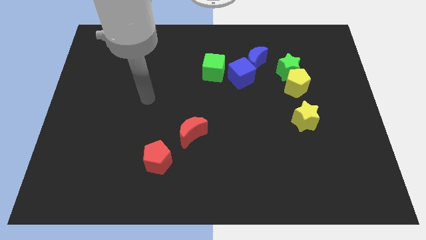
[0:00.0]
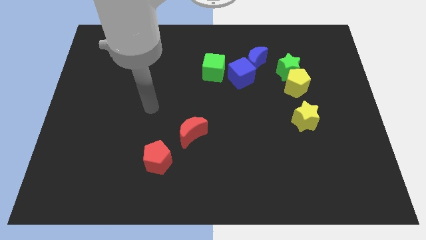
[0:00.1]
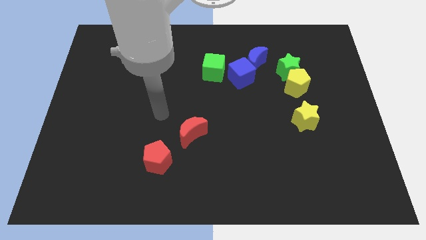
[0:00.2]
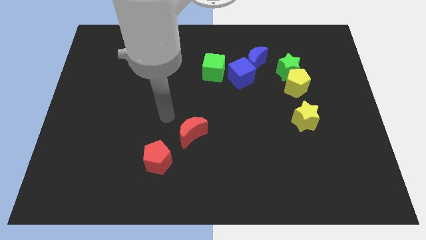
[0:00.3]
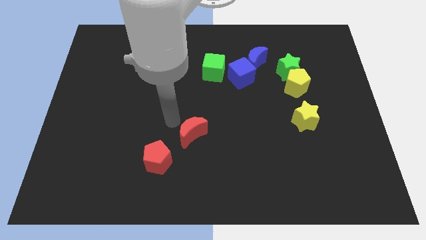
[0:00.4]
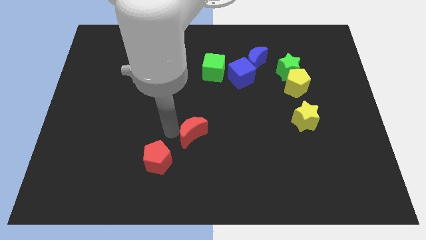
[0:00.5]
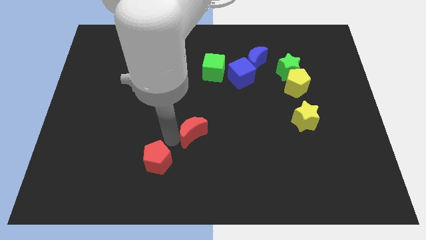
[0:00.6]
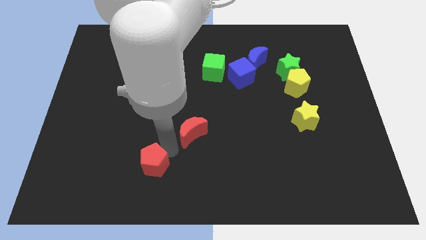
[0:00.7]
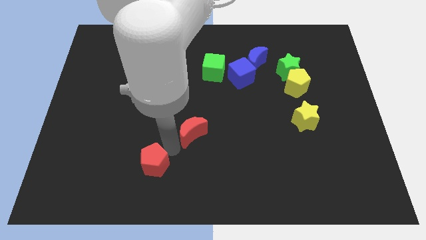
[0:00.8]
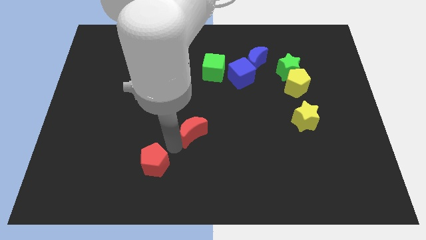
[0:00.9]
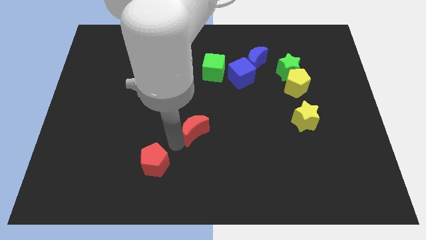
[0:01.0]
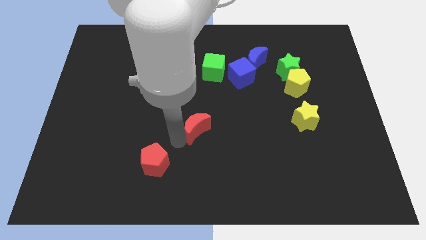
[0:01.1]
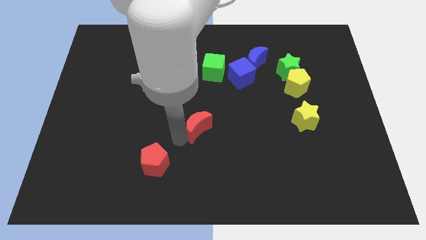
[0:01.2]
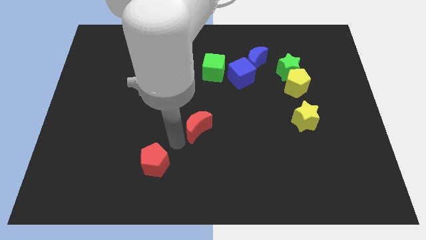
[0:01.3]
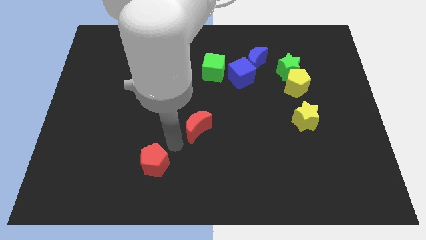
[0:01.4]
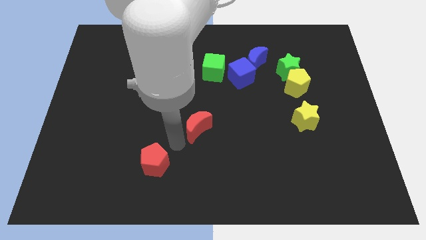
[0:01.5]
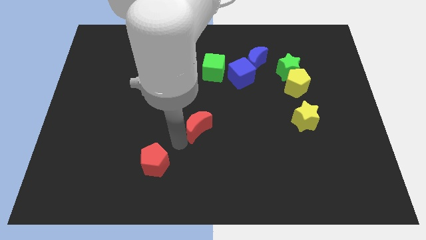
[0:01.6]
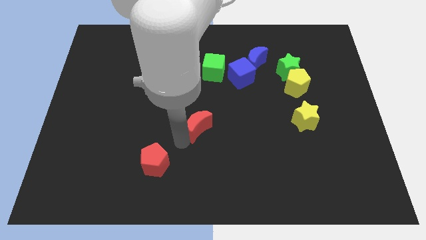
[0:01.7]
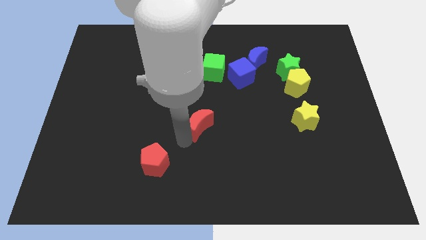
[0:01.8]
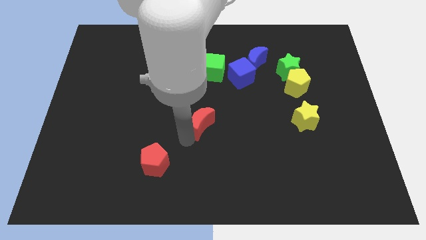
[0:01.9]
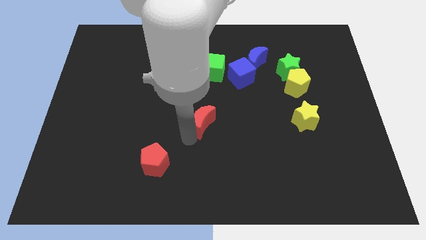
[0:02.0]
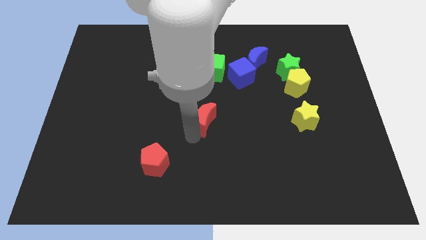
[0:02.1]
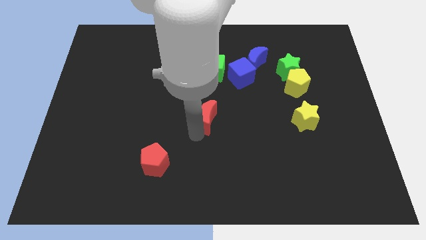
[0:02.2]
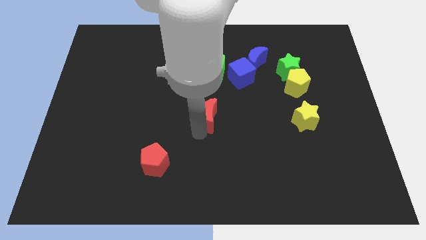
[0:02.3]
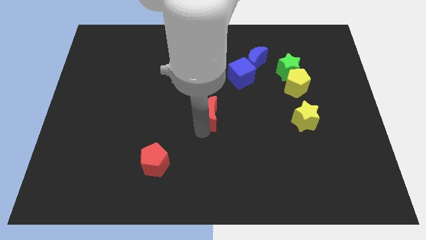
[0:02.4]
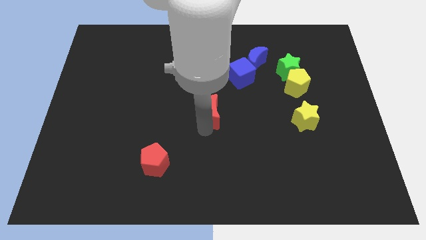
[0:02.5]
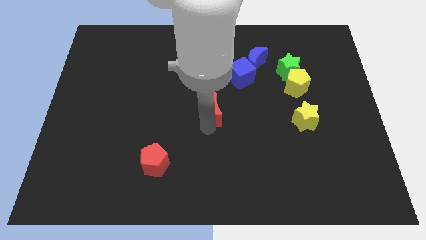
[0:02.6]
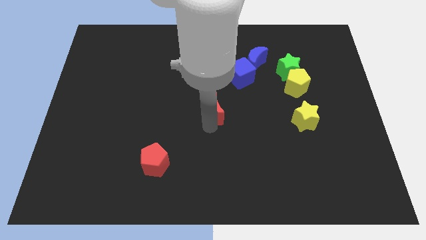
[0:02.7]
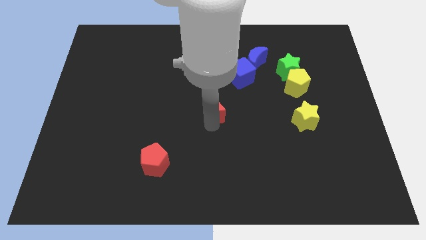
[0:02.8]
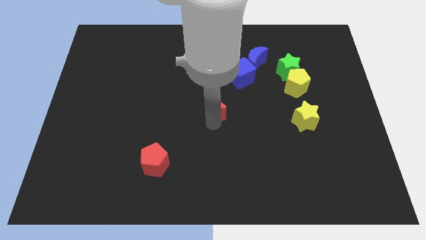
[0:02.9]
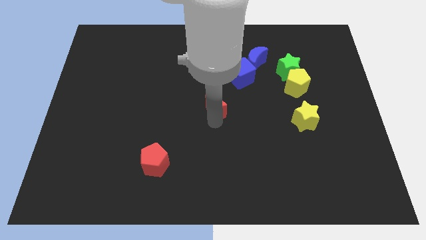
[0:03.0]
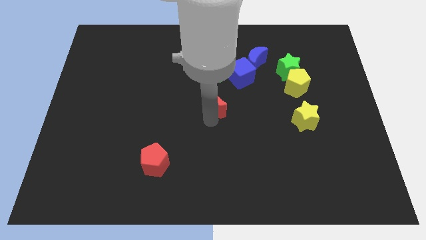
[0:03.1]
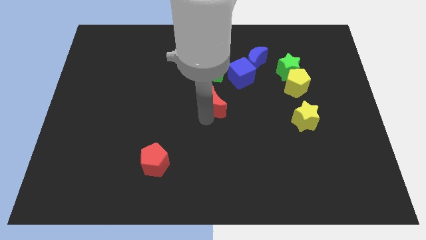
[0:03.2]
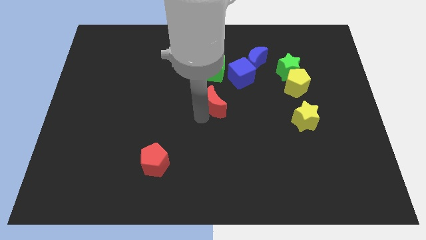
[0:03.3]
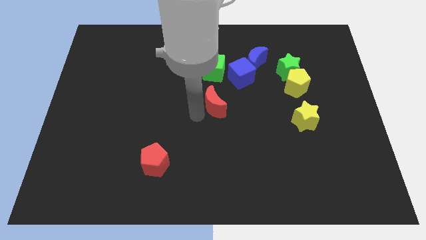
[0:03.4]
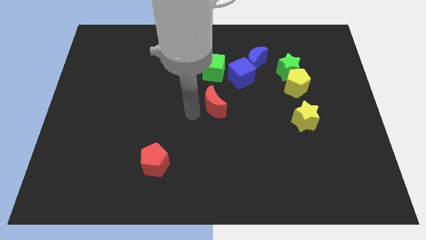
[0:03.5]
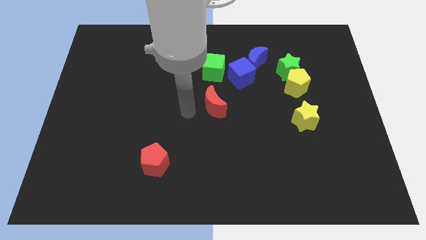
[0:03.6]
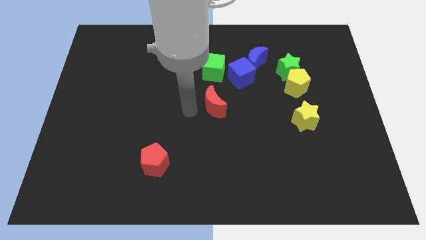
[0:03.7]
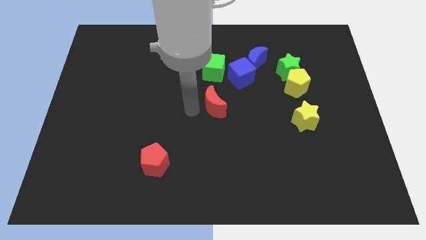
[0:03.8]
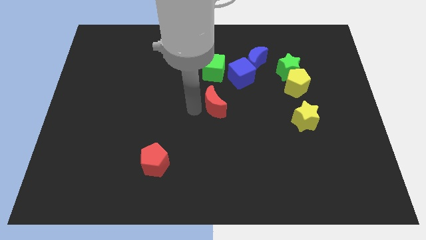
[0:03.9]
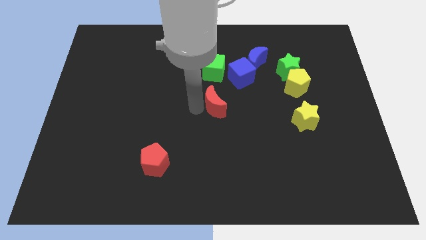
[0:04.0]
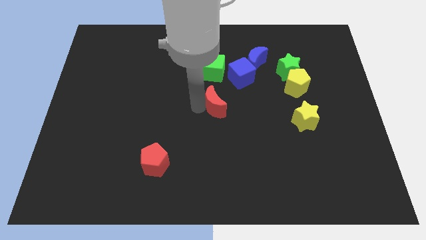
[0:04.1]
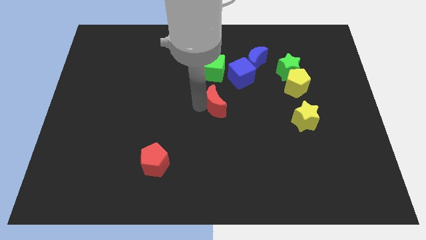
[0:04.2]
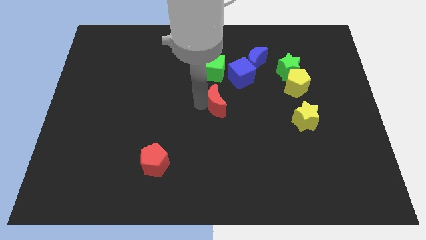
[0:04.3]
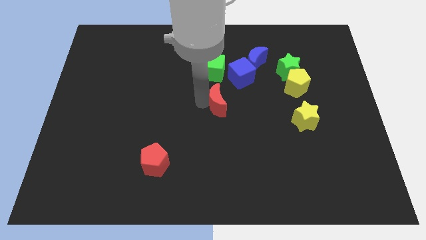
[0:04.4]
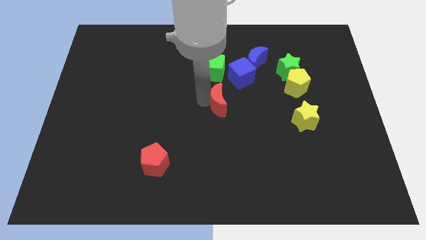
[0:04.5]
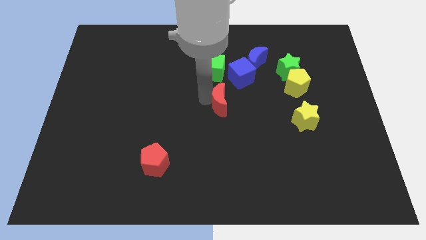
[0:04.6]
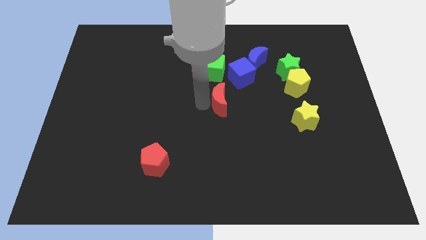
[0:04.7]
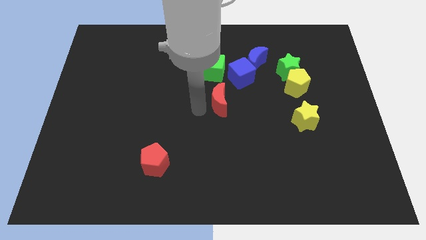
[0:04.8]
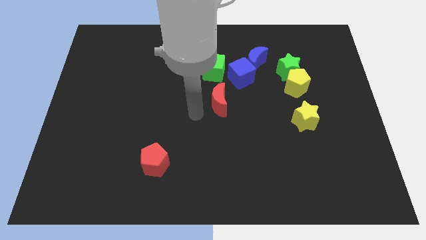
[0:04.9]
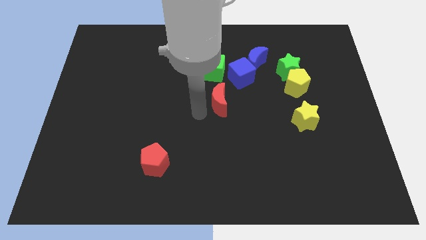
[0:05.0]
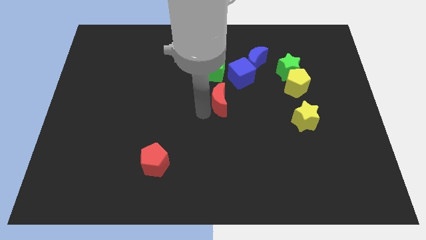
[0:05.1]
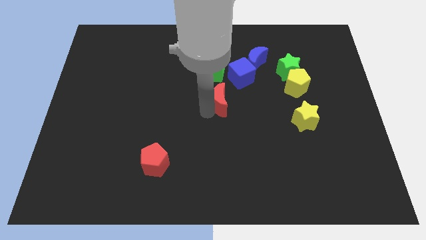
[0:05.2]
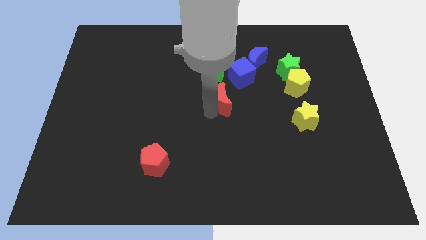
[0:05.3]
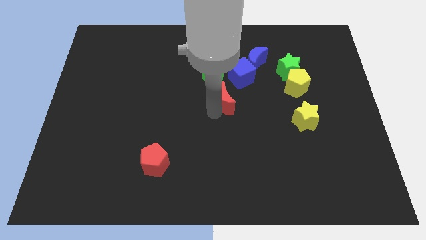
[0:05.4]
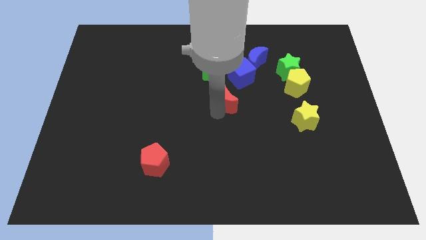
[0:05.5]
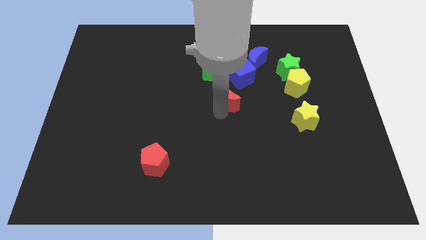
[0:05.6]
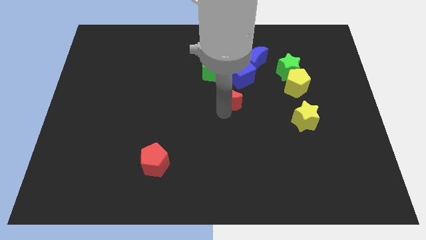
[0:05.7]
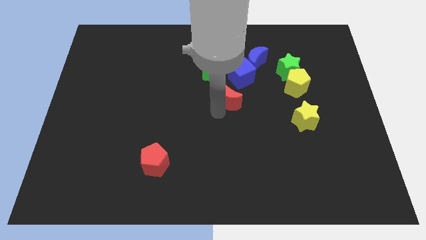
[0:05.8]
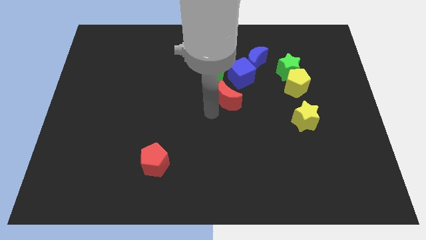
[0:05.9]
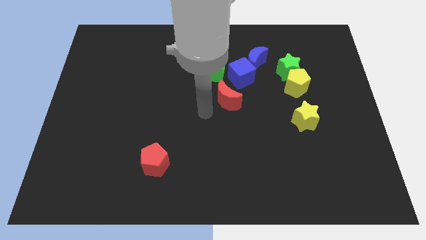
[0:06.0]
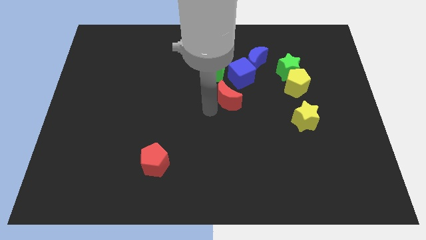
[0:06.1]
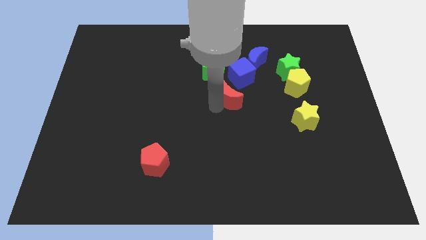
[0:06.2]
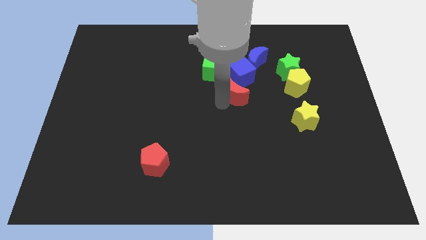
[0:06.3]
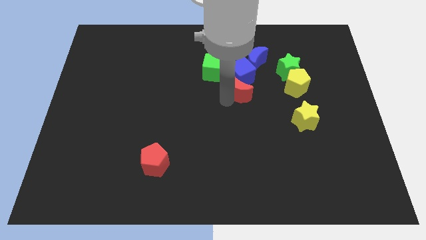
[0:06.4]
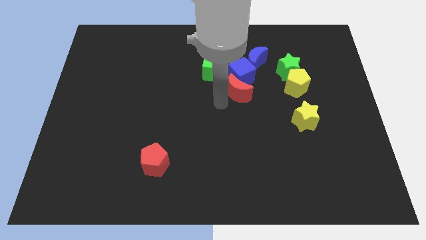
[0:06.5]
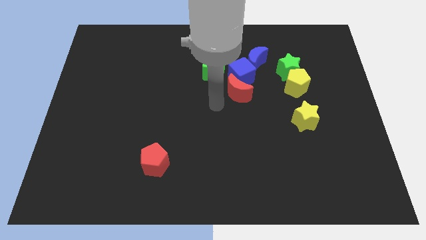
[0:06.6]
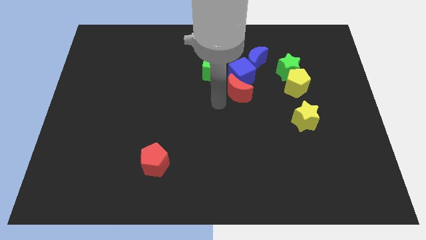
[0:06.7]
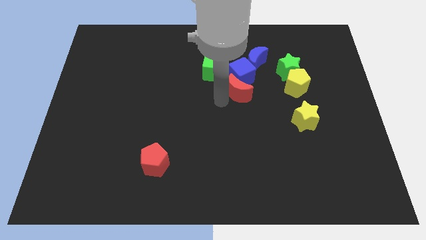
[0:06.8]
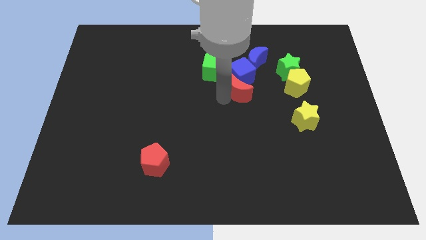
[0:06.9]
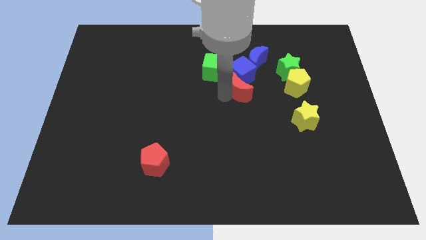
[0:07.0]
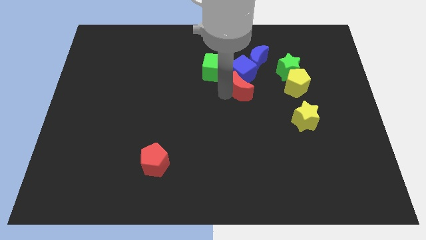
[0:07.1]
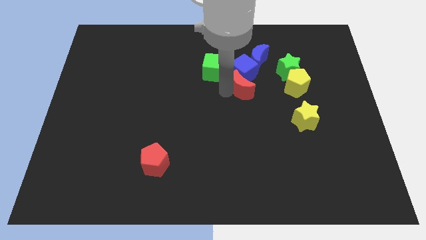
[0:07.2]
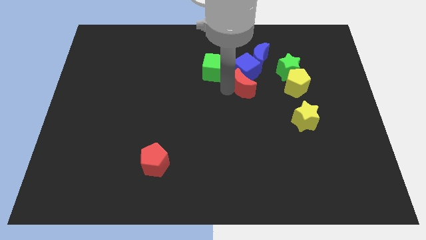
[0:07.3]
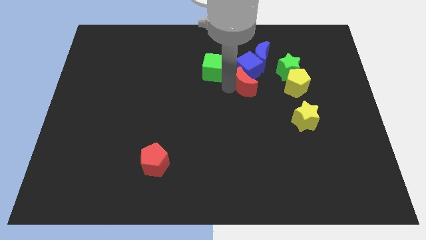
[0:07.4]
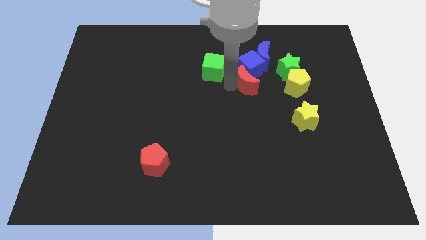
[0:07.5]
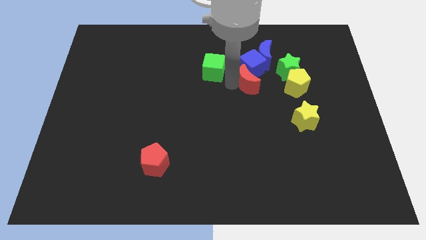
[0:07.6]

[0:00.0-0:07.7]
move the red moon upwards and right

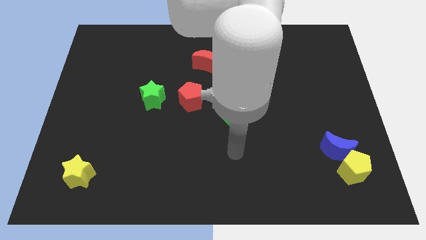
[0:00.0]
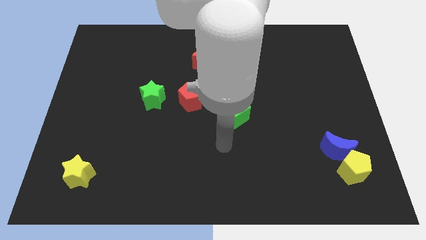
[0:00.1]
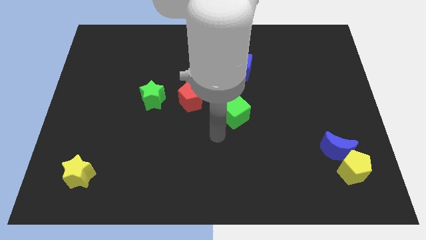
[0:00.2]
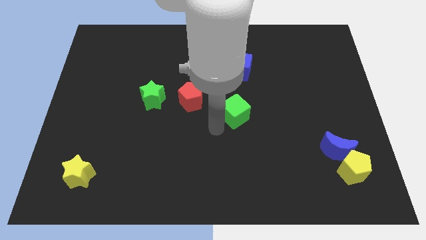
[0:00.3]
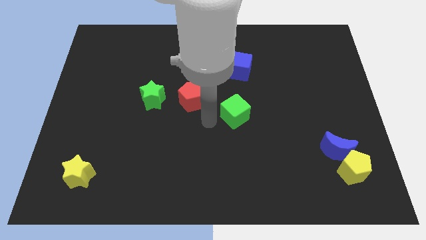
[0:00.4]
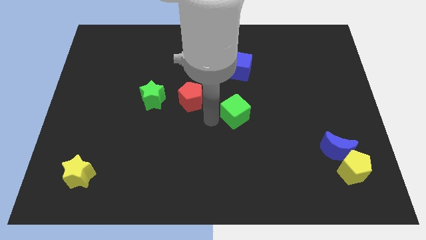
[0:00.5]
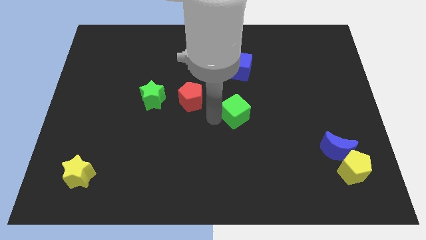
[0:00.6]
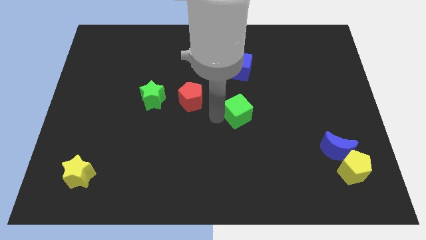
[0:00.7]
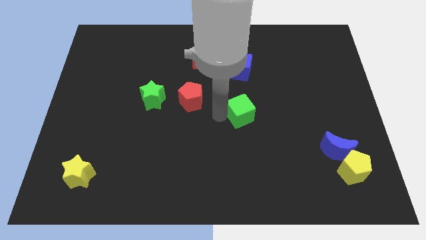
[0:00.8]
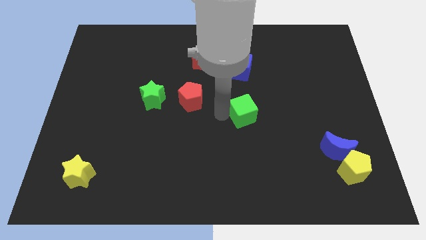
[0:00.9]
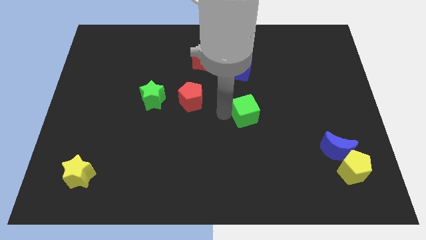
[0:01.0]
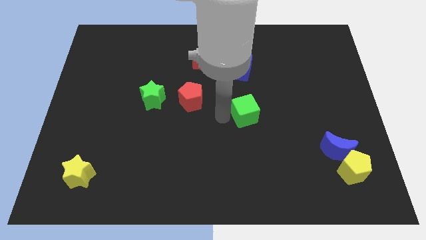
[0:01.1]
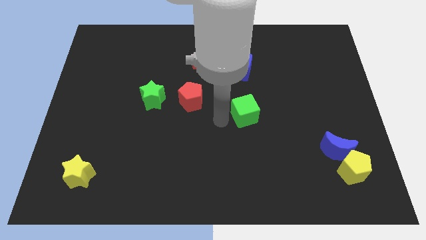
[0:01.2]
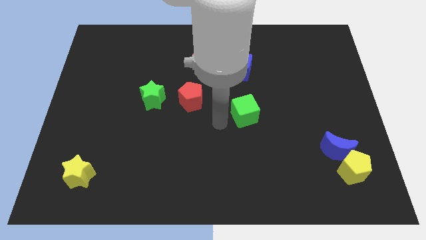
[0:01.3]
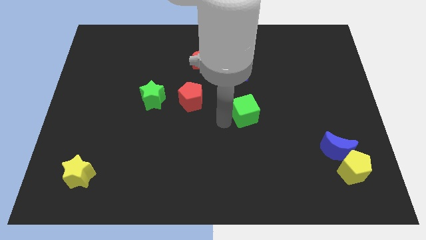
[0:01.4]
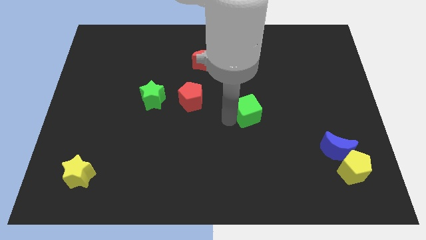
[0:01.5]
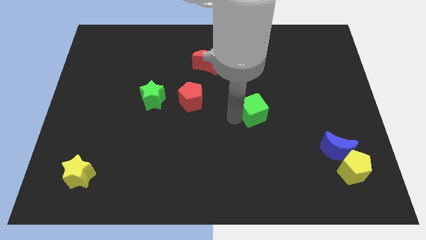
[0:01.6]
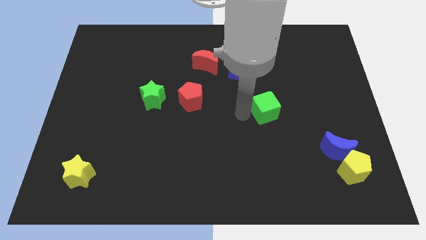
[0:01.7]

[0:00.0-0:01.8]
push the green cube right a little
